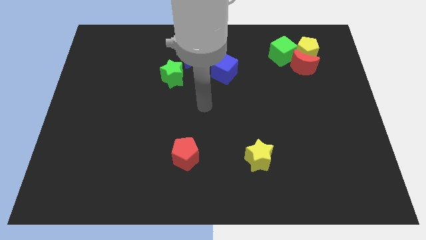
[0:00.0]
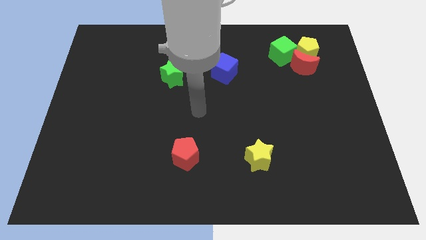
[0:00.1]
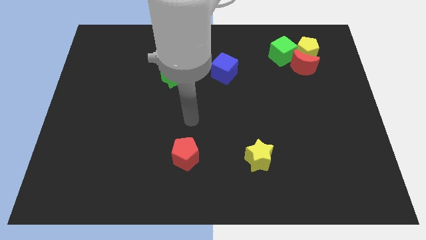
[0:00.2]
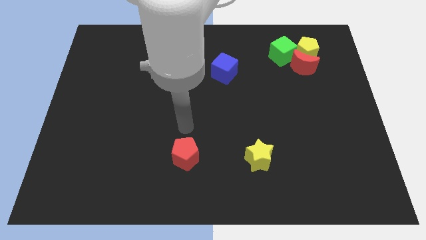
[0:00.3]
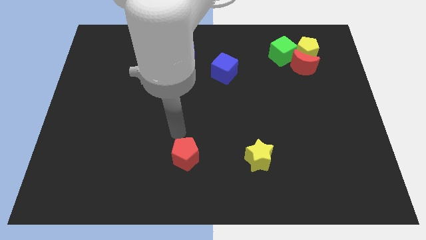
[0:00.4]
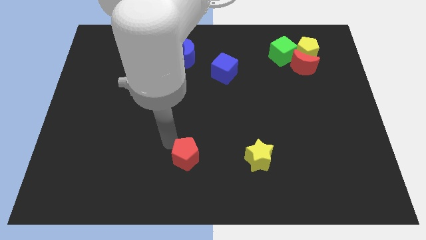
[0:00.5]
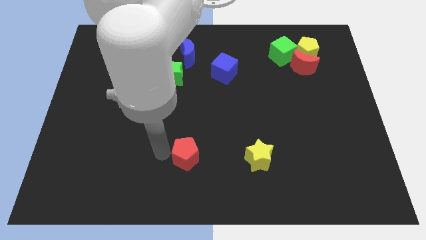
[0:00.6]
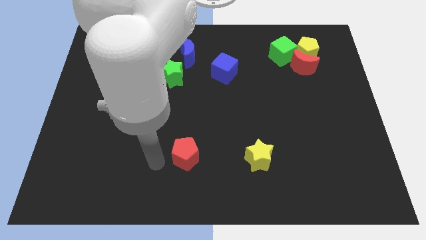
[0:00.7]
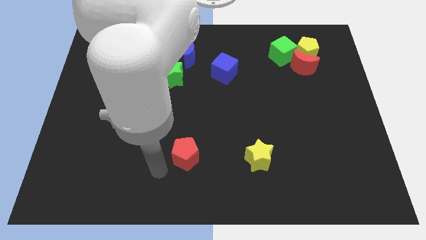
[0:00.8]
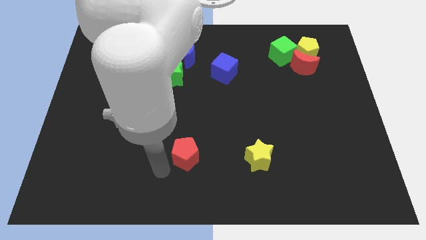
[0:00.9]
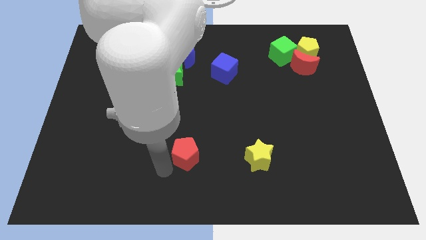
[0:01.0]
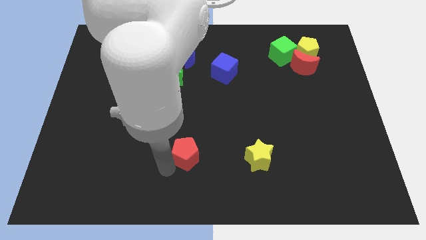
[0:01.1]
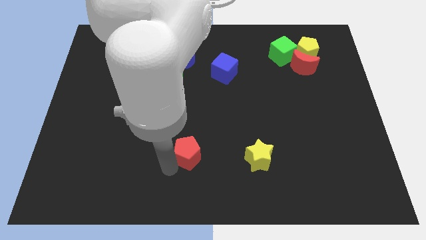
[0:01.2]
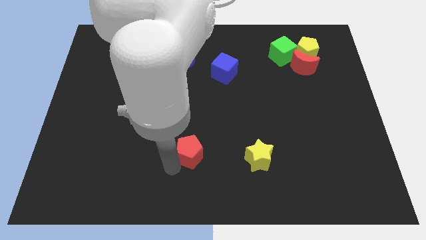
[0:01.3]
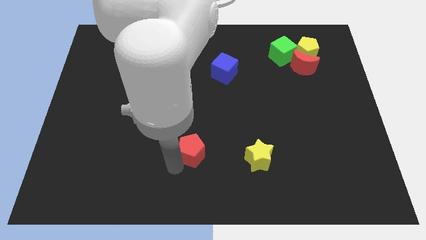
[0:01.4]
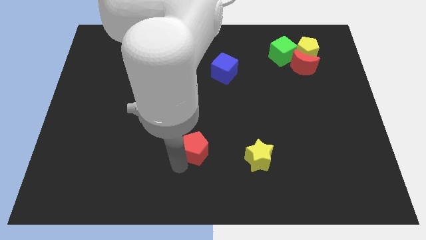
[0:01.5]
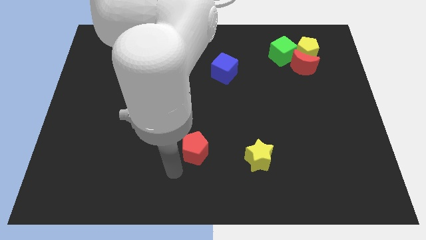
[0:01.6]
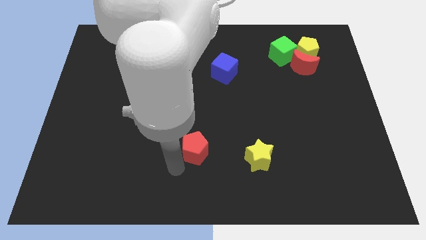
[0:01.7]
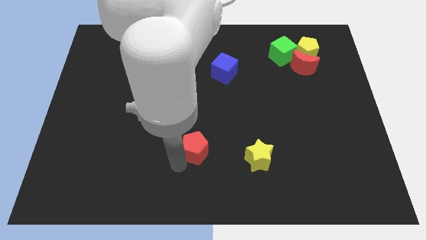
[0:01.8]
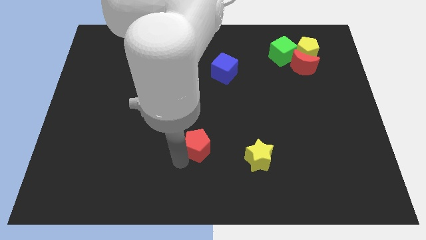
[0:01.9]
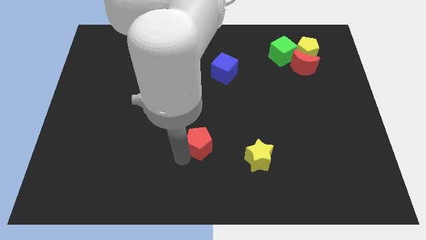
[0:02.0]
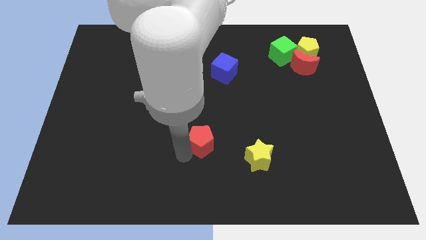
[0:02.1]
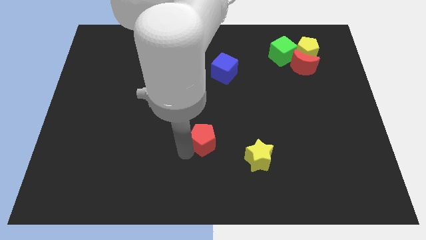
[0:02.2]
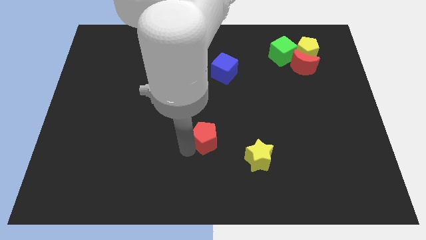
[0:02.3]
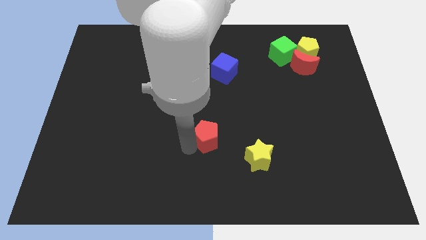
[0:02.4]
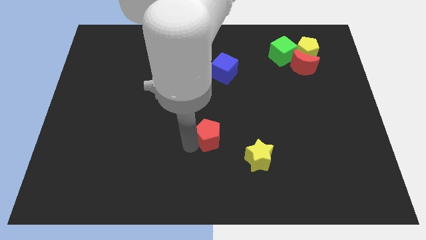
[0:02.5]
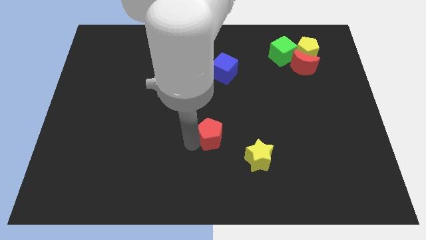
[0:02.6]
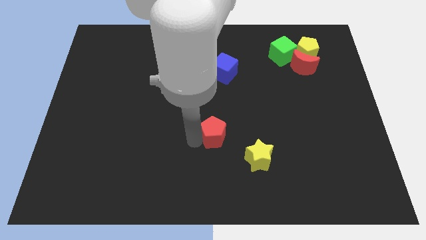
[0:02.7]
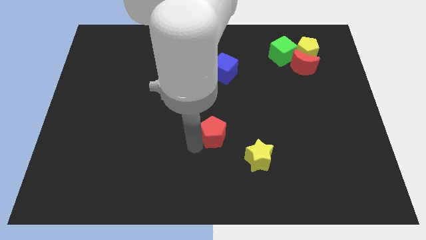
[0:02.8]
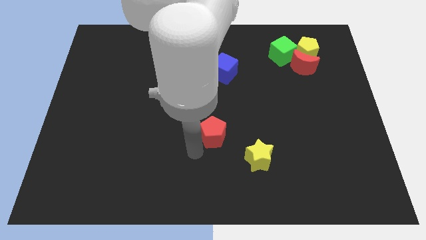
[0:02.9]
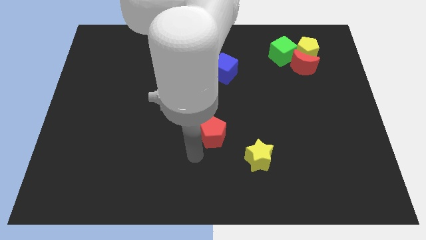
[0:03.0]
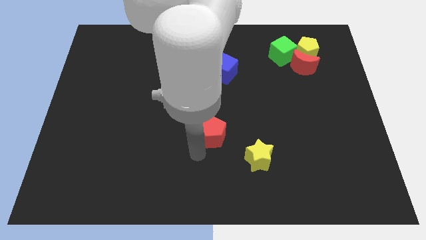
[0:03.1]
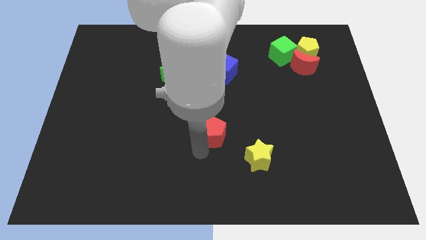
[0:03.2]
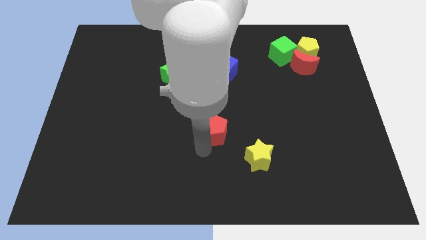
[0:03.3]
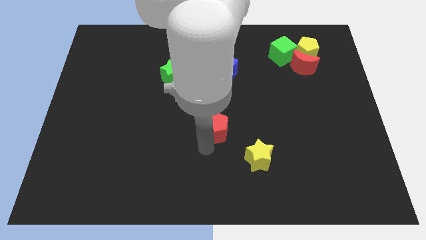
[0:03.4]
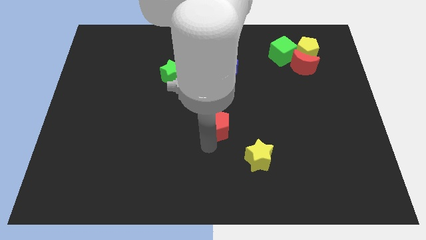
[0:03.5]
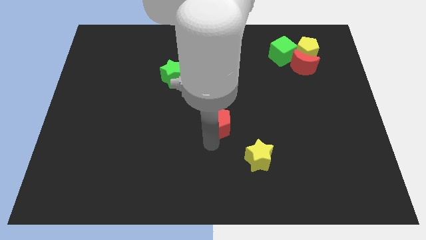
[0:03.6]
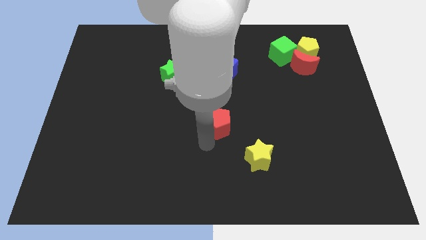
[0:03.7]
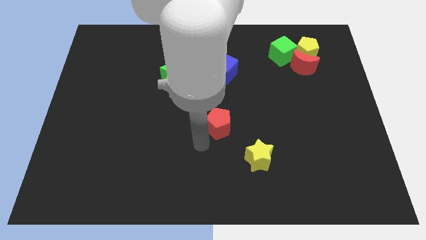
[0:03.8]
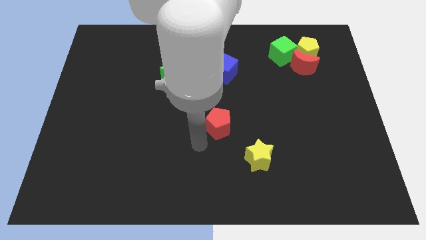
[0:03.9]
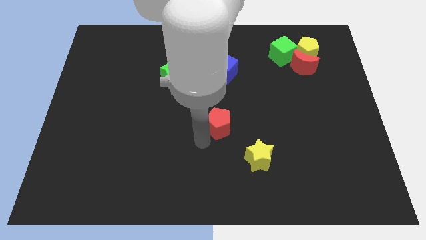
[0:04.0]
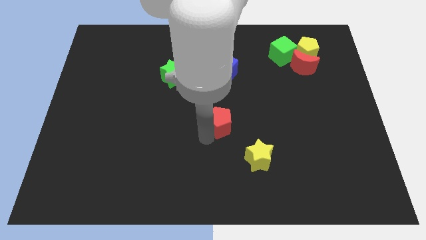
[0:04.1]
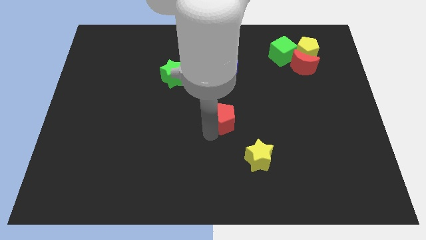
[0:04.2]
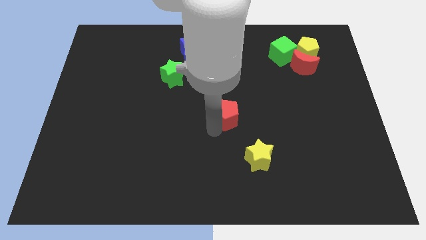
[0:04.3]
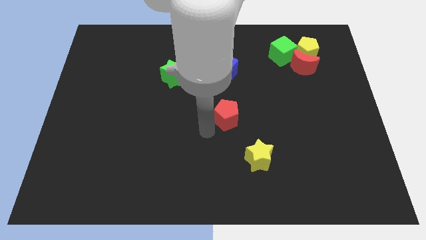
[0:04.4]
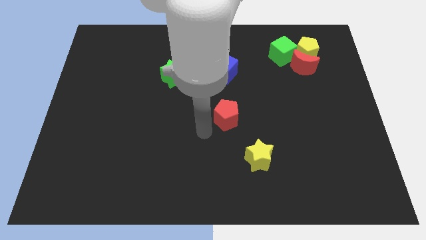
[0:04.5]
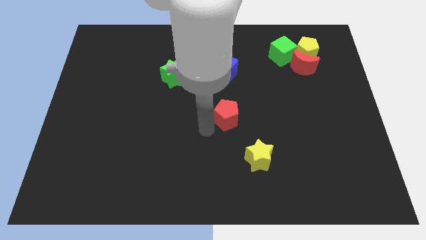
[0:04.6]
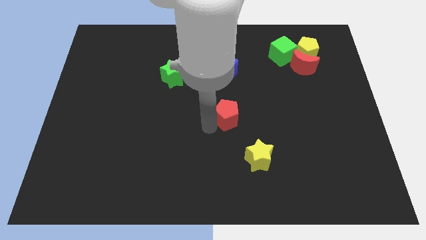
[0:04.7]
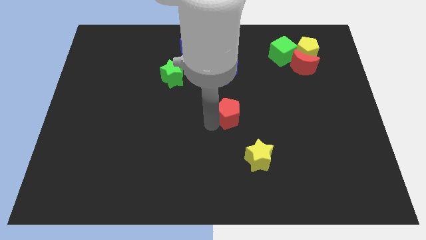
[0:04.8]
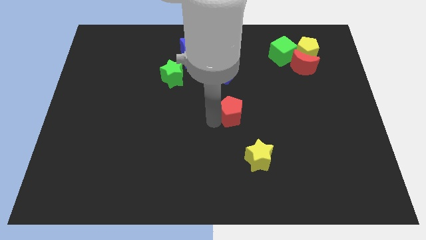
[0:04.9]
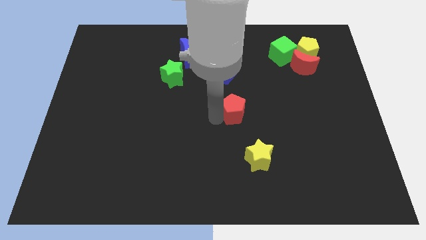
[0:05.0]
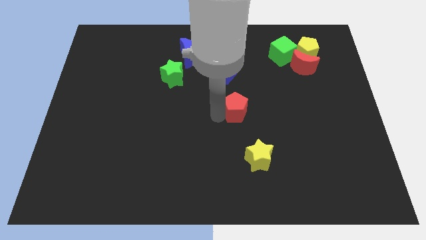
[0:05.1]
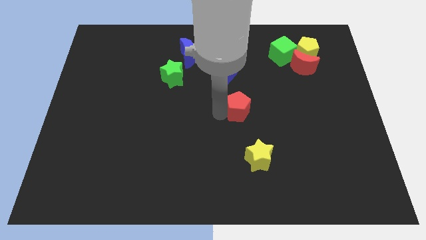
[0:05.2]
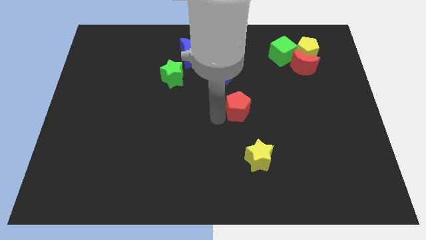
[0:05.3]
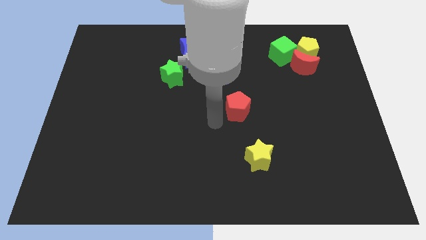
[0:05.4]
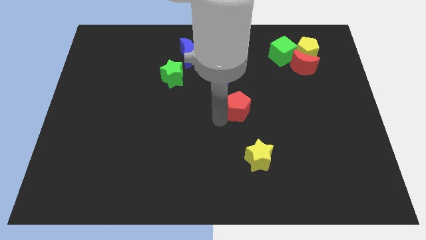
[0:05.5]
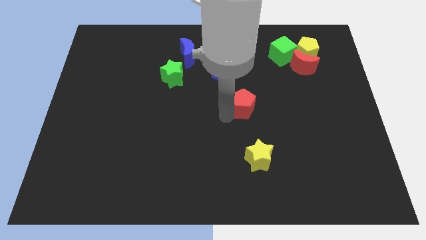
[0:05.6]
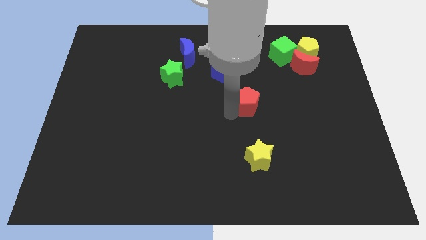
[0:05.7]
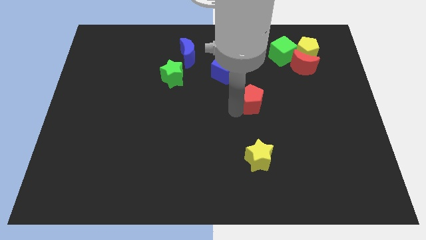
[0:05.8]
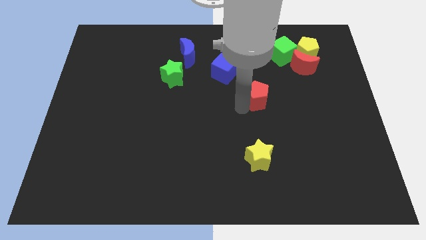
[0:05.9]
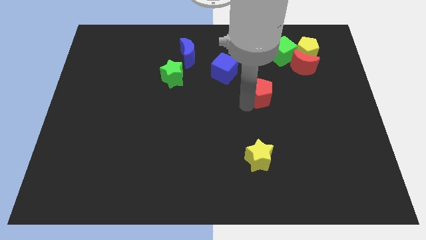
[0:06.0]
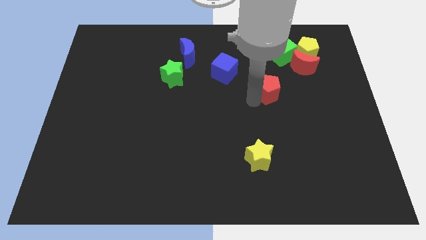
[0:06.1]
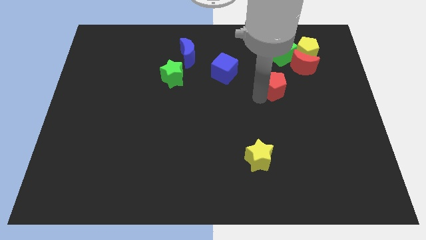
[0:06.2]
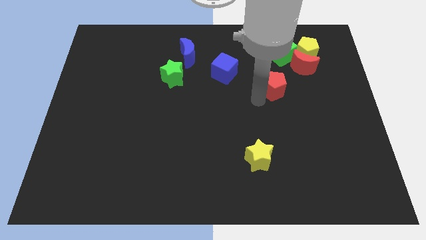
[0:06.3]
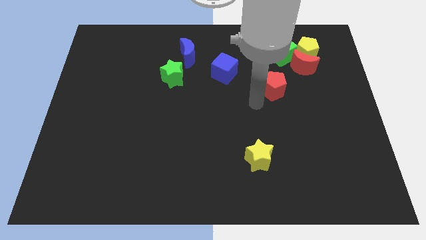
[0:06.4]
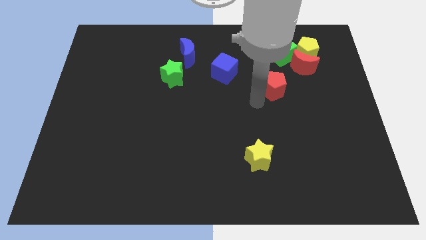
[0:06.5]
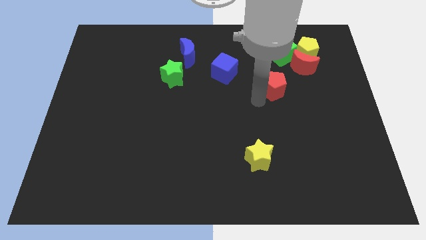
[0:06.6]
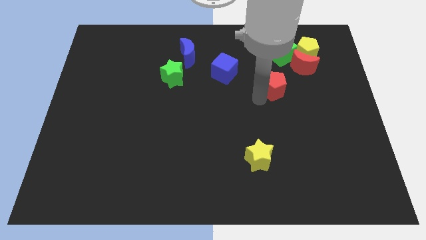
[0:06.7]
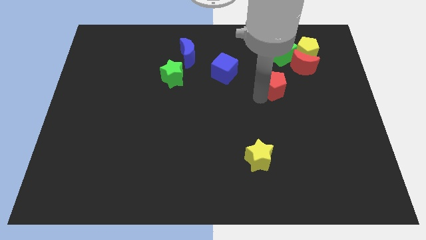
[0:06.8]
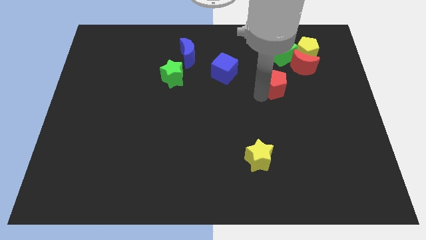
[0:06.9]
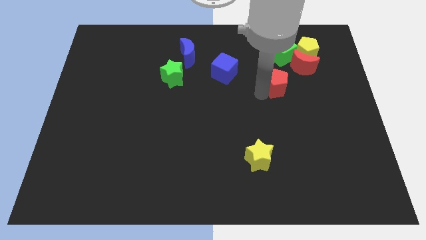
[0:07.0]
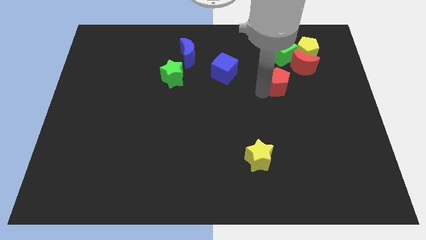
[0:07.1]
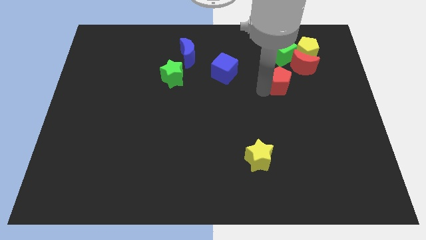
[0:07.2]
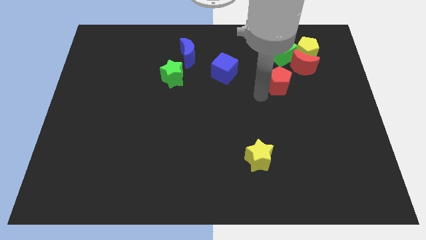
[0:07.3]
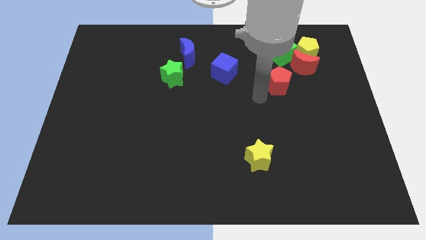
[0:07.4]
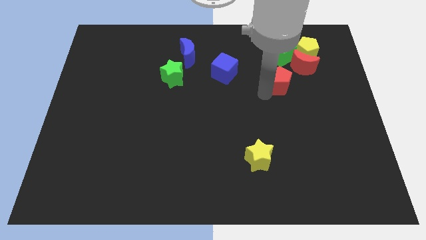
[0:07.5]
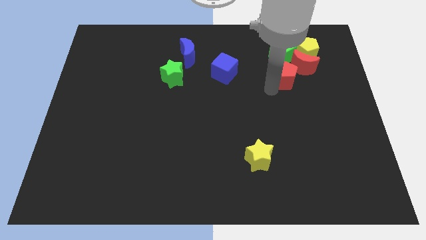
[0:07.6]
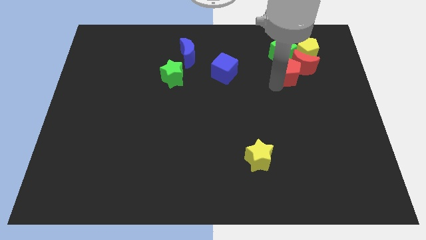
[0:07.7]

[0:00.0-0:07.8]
put the red pentagon towards the red moon
